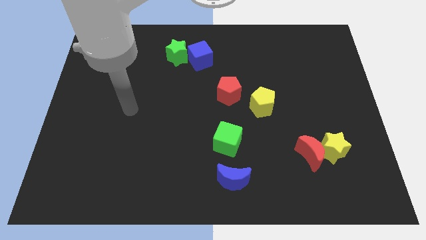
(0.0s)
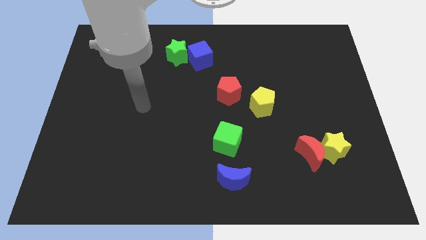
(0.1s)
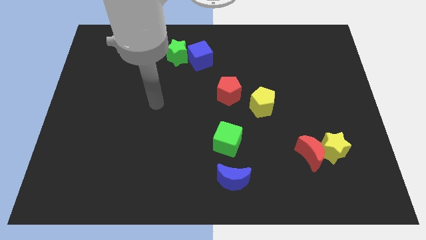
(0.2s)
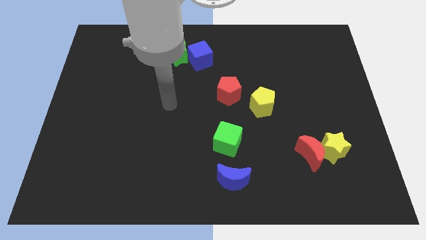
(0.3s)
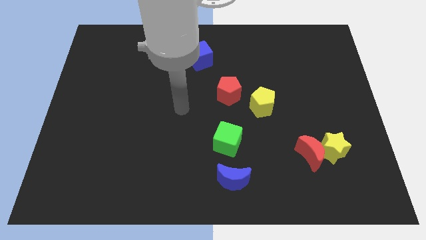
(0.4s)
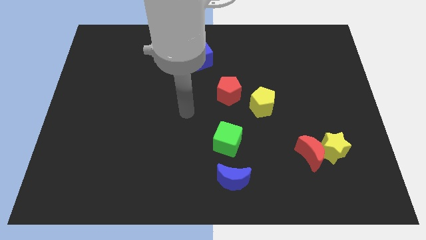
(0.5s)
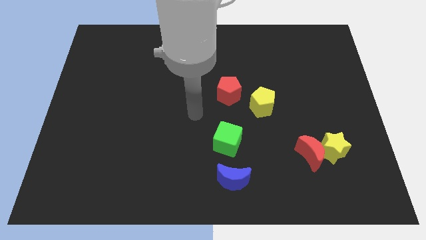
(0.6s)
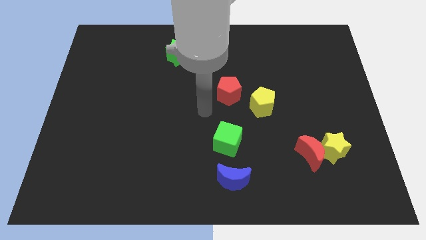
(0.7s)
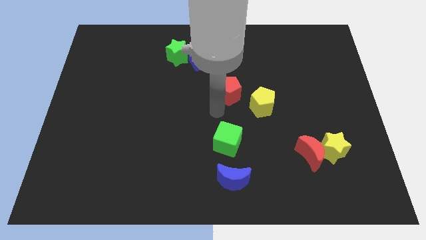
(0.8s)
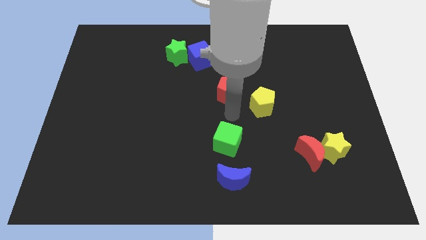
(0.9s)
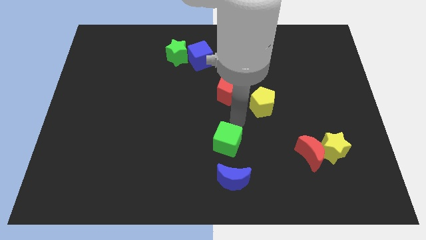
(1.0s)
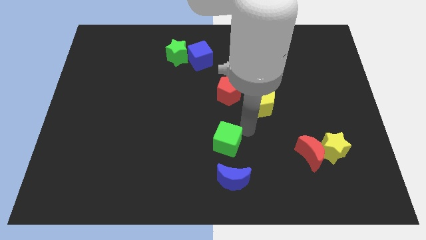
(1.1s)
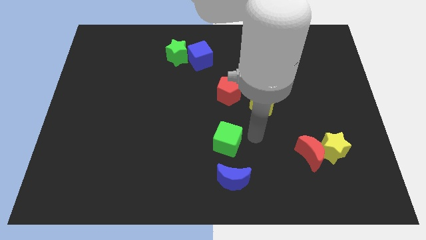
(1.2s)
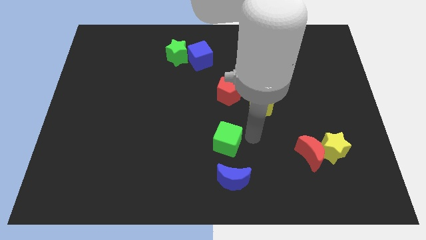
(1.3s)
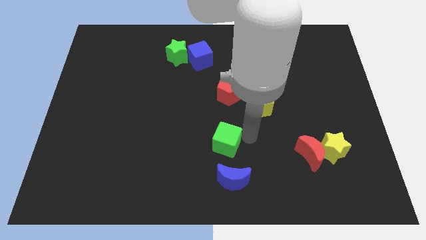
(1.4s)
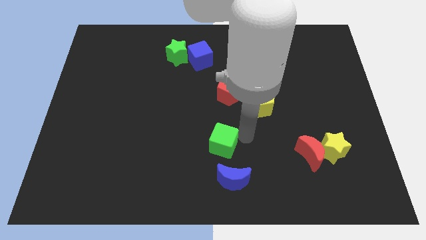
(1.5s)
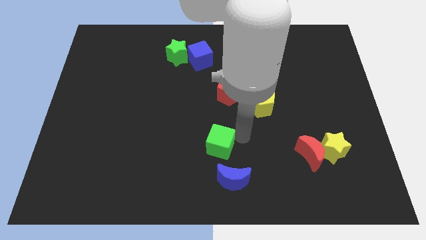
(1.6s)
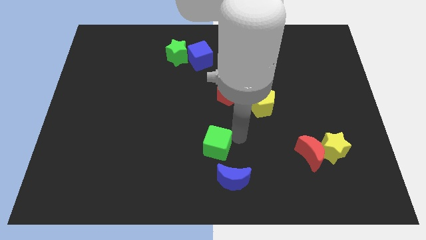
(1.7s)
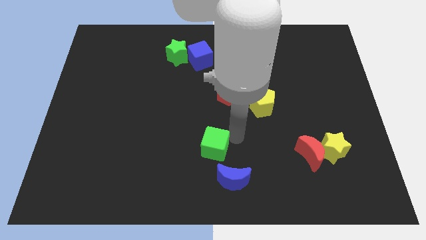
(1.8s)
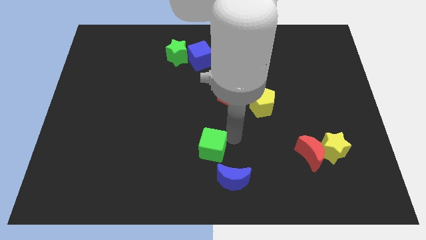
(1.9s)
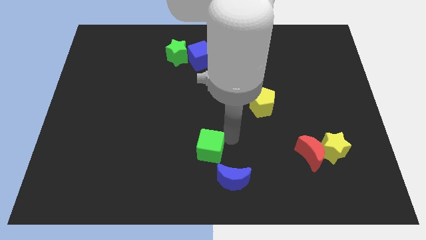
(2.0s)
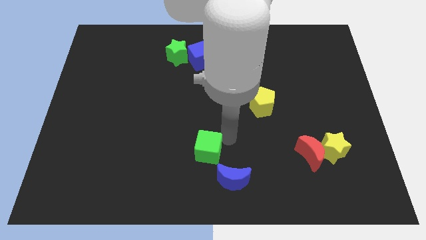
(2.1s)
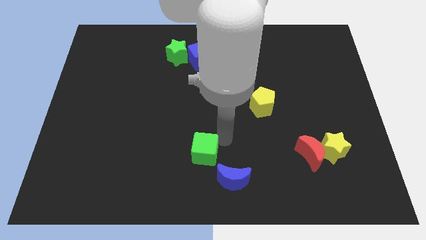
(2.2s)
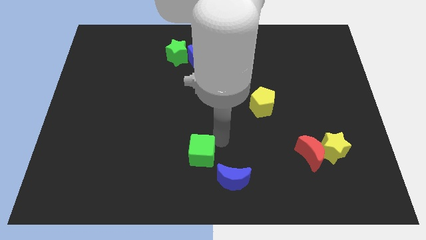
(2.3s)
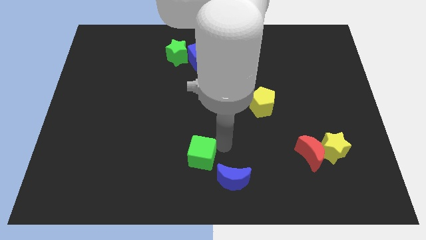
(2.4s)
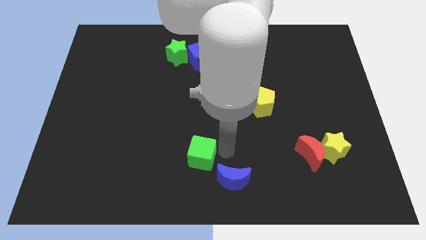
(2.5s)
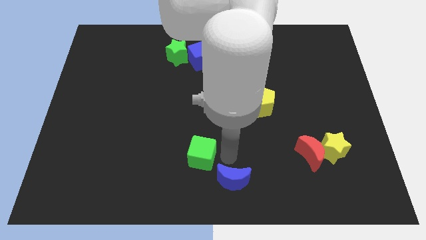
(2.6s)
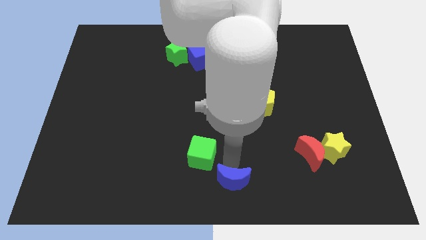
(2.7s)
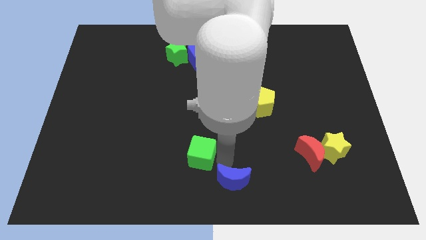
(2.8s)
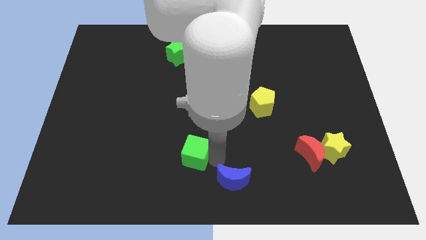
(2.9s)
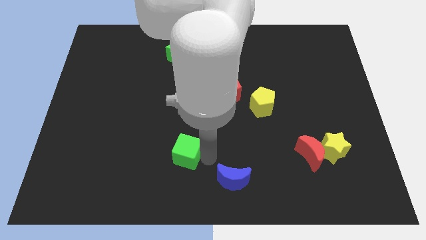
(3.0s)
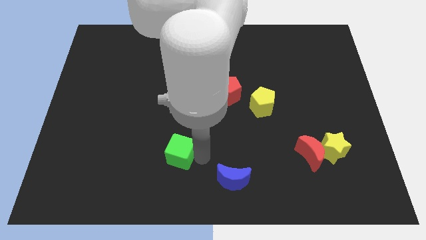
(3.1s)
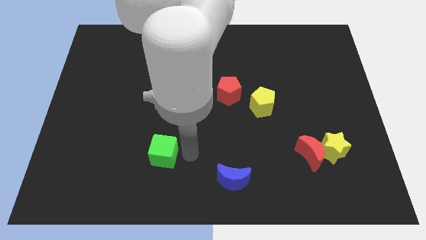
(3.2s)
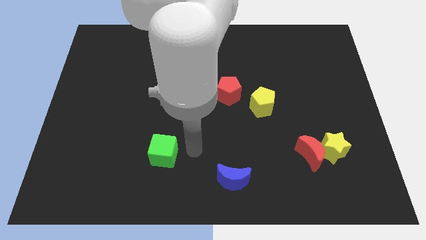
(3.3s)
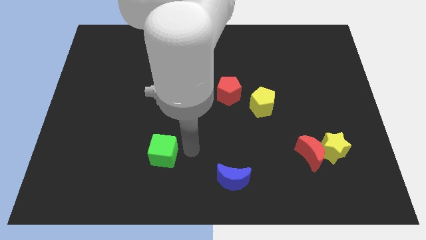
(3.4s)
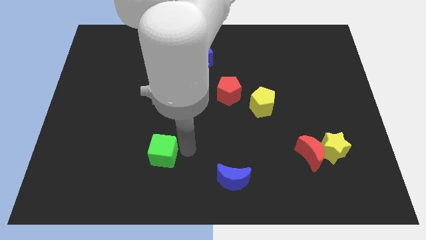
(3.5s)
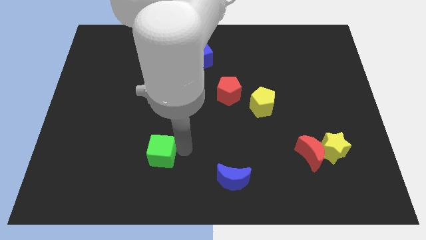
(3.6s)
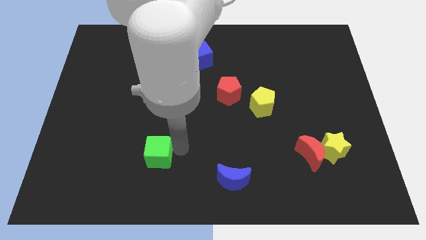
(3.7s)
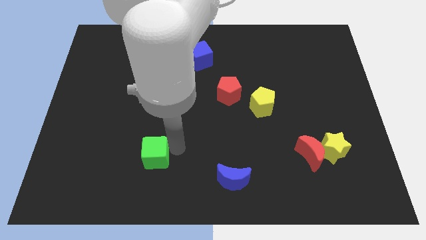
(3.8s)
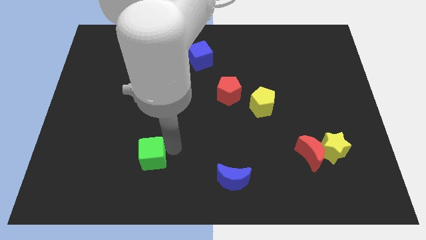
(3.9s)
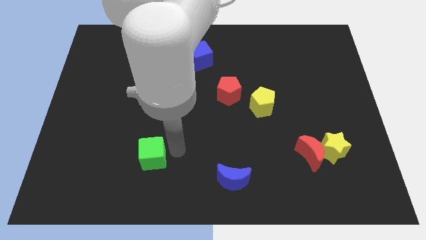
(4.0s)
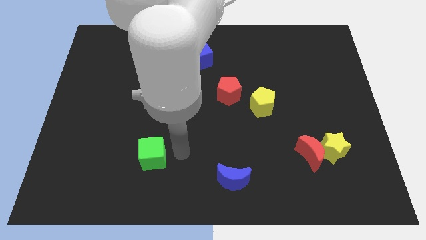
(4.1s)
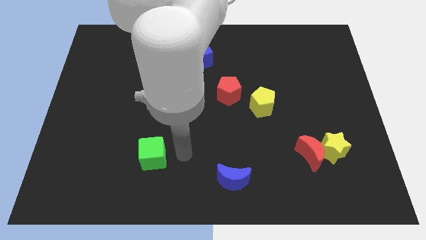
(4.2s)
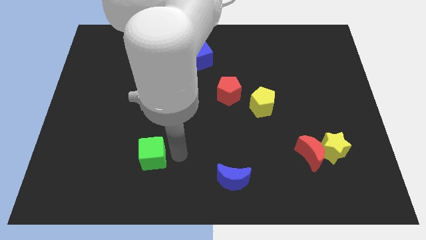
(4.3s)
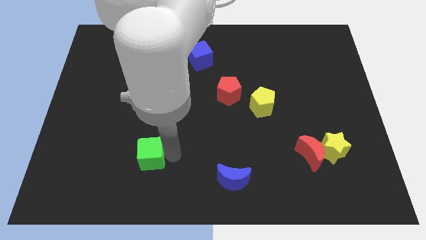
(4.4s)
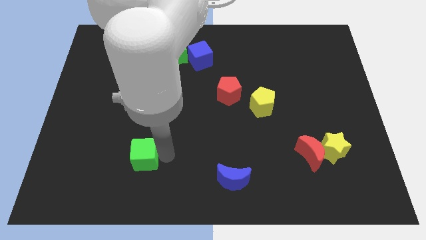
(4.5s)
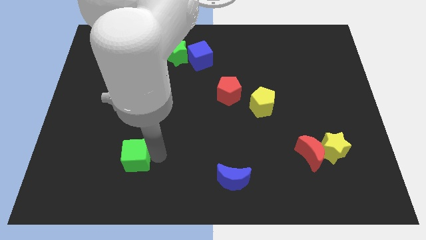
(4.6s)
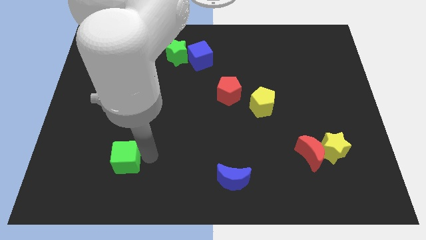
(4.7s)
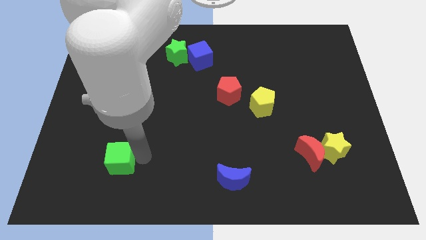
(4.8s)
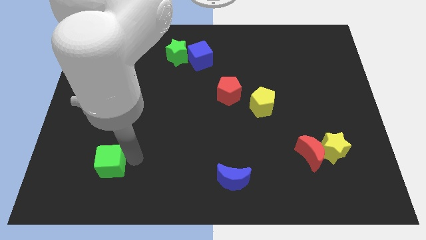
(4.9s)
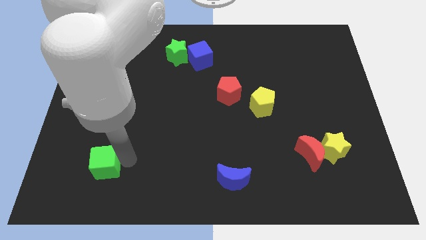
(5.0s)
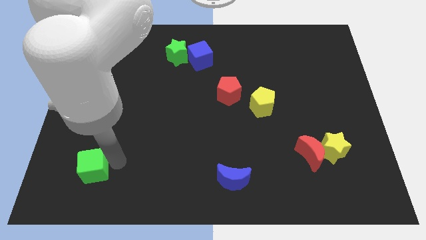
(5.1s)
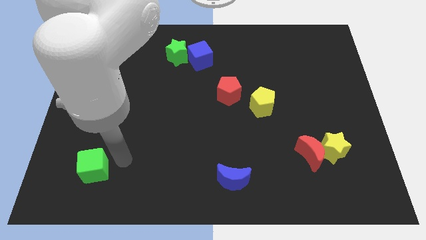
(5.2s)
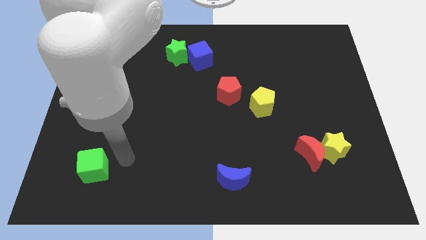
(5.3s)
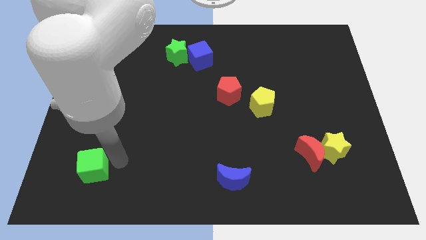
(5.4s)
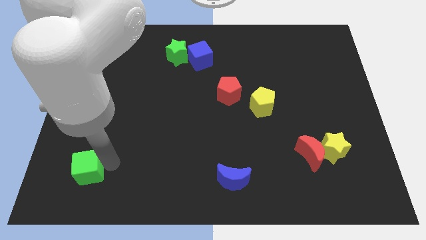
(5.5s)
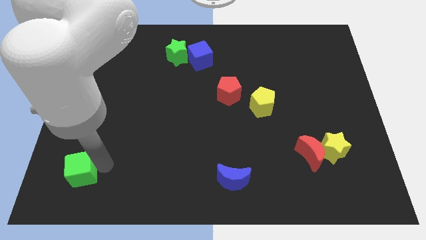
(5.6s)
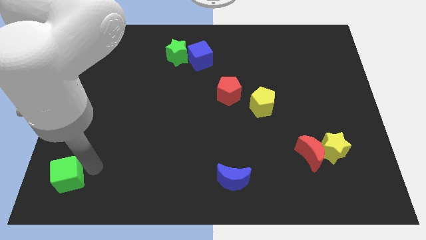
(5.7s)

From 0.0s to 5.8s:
move the green cube to the bottom left
